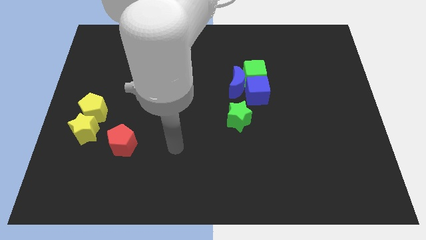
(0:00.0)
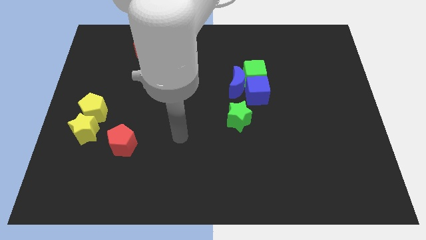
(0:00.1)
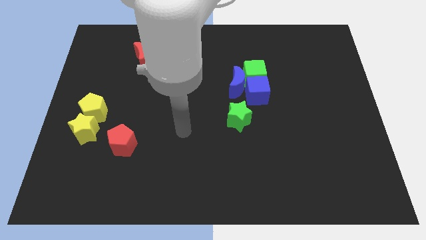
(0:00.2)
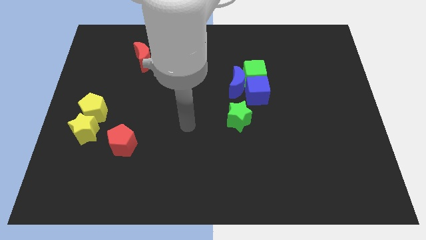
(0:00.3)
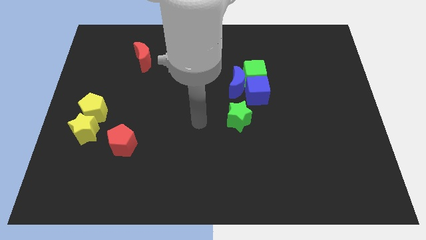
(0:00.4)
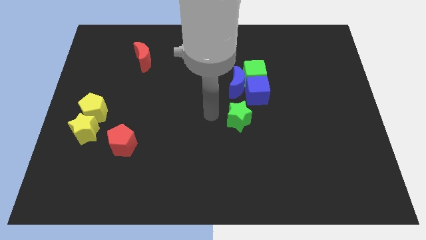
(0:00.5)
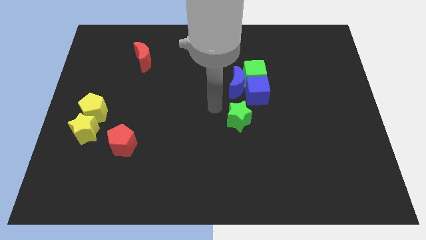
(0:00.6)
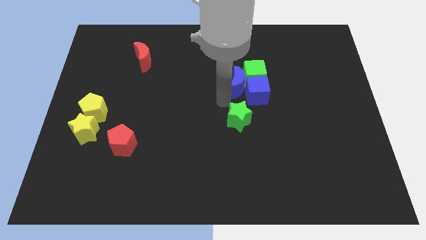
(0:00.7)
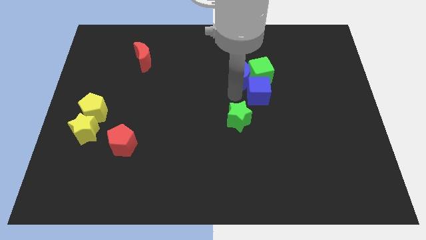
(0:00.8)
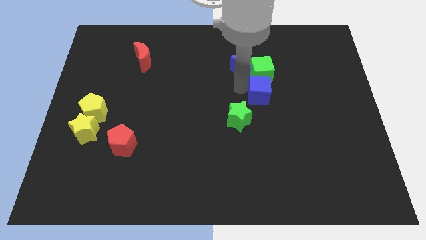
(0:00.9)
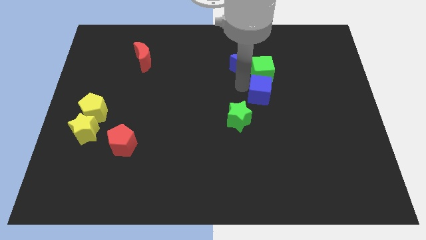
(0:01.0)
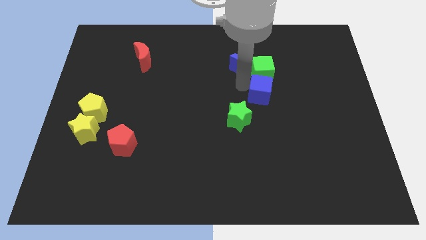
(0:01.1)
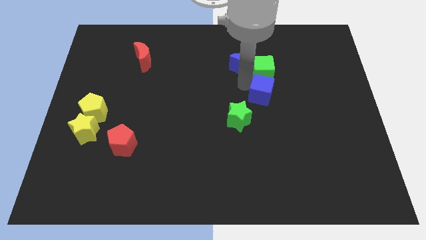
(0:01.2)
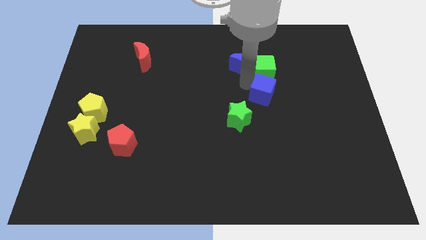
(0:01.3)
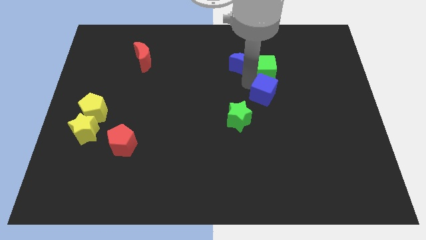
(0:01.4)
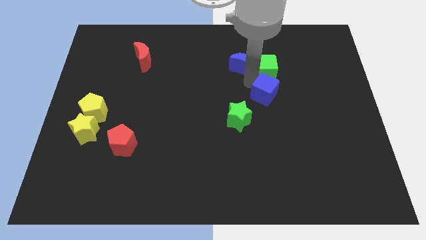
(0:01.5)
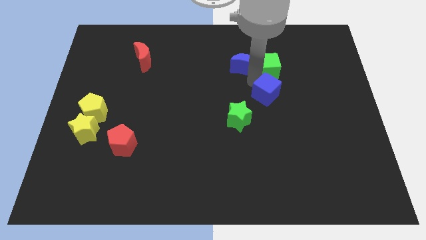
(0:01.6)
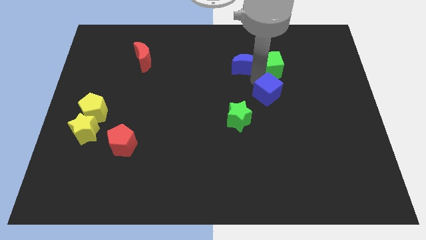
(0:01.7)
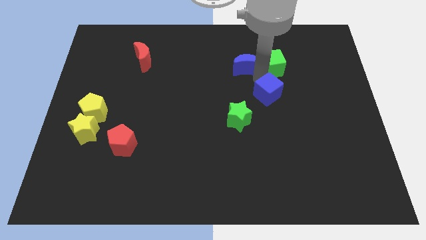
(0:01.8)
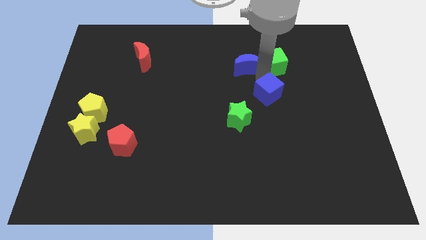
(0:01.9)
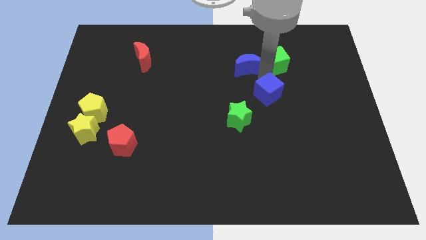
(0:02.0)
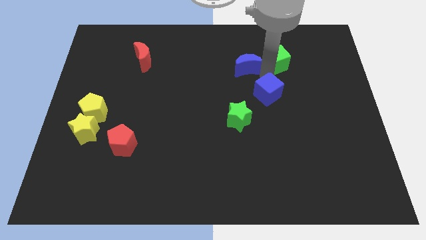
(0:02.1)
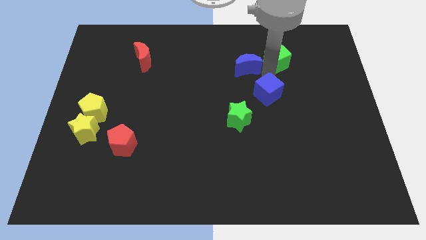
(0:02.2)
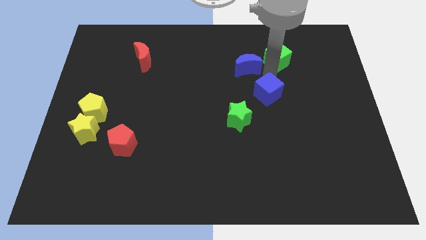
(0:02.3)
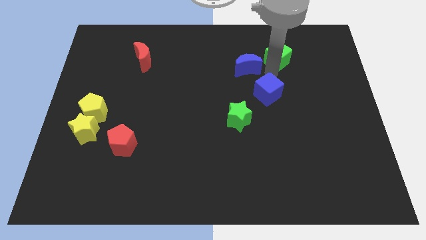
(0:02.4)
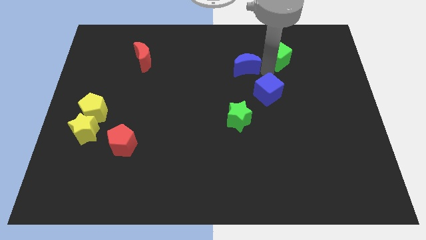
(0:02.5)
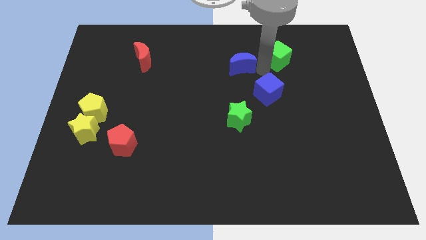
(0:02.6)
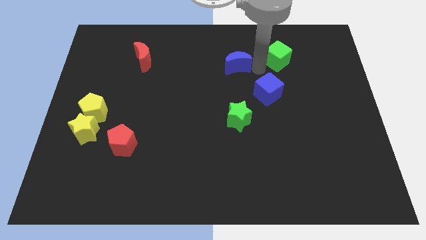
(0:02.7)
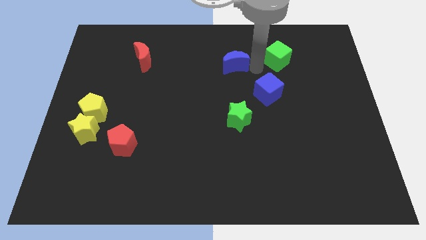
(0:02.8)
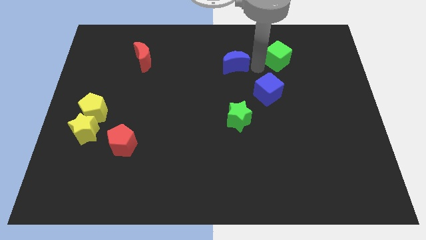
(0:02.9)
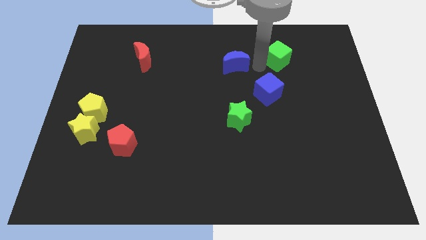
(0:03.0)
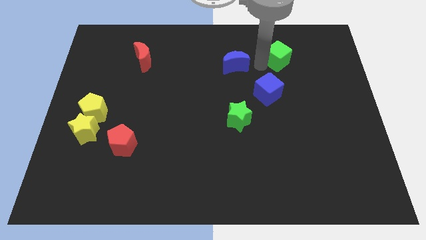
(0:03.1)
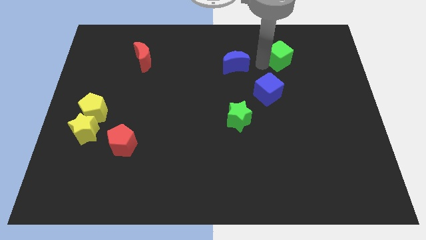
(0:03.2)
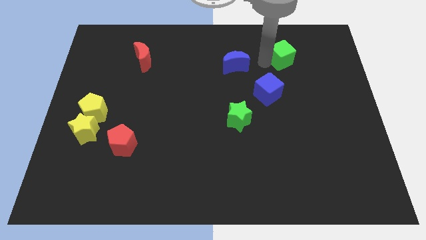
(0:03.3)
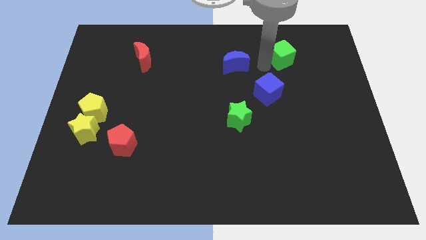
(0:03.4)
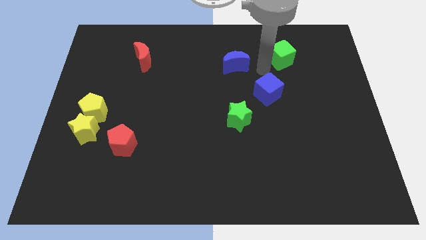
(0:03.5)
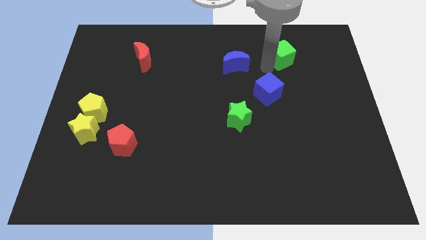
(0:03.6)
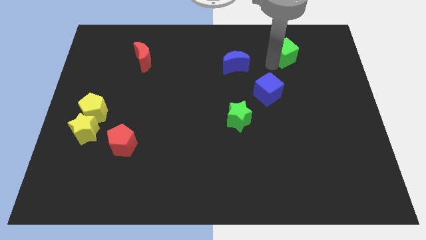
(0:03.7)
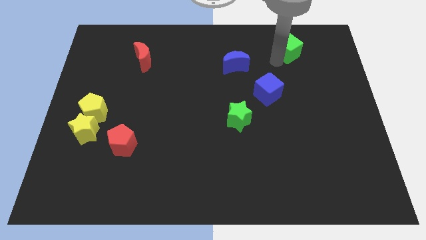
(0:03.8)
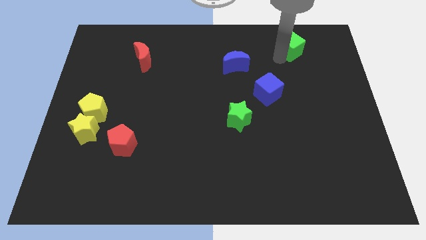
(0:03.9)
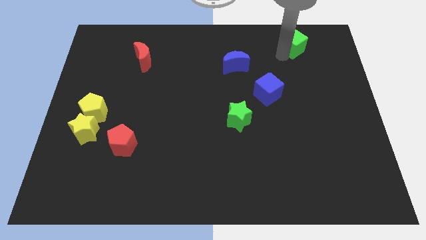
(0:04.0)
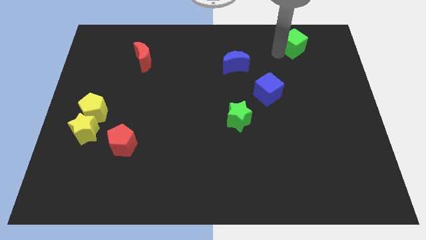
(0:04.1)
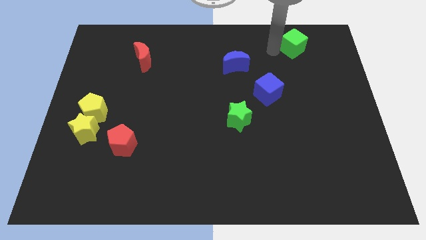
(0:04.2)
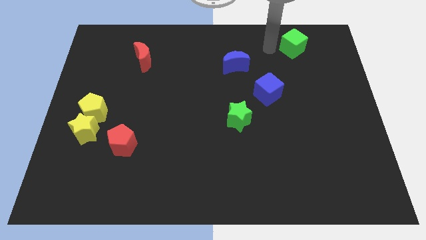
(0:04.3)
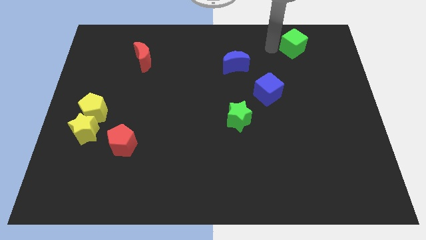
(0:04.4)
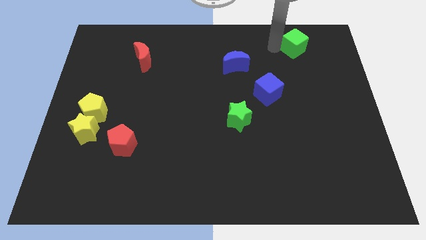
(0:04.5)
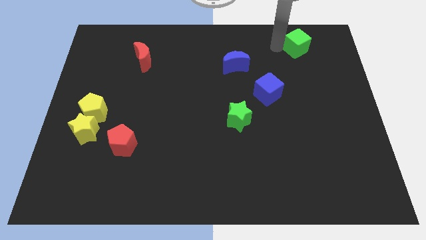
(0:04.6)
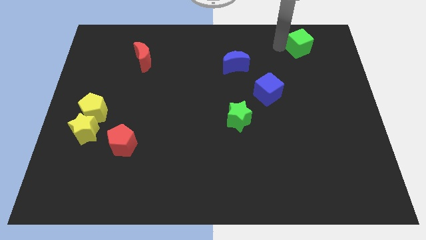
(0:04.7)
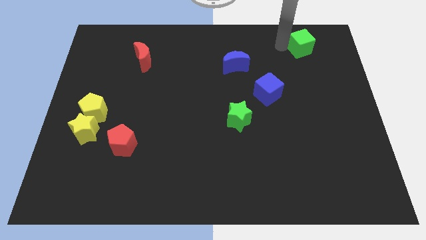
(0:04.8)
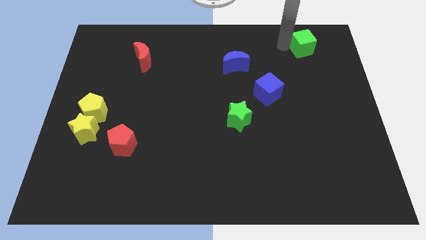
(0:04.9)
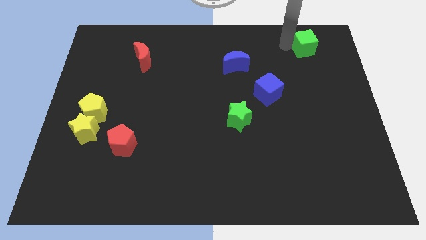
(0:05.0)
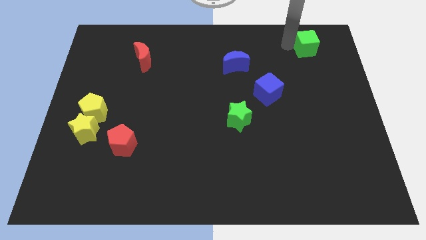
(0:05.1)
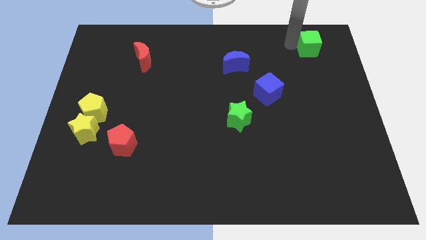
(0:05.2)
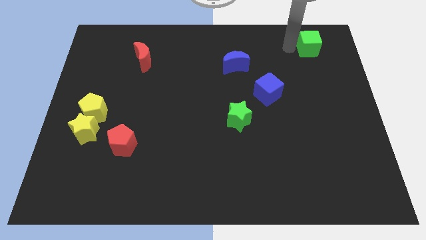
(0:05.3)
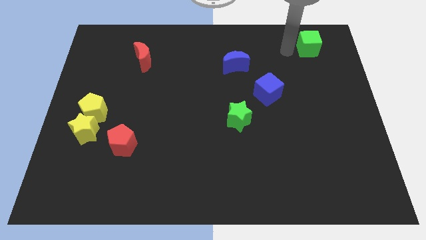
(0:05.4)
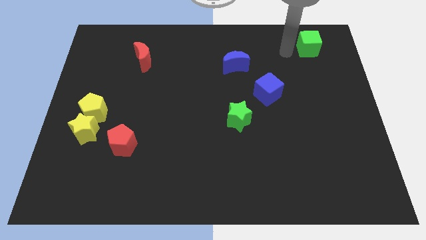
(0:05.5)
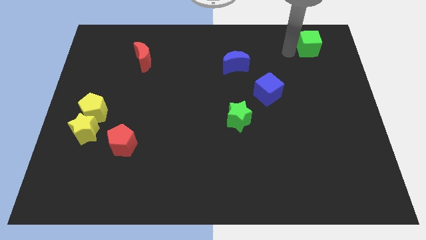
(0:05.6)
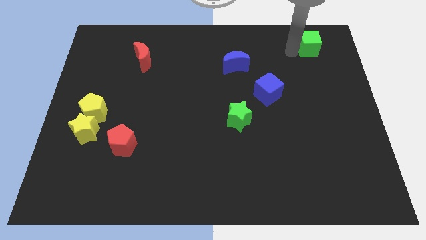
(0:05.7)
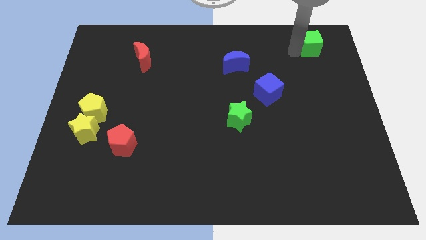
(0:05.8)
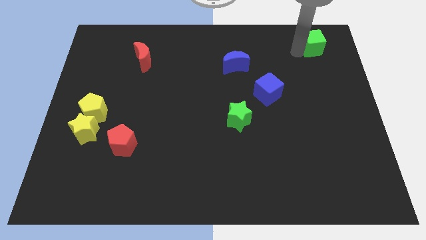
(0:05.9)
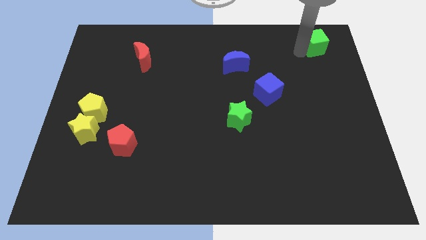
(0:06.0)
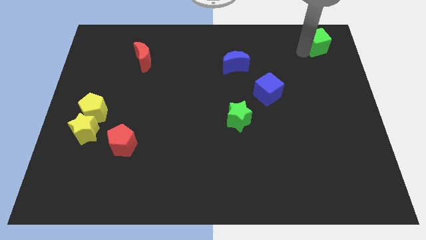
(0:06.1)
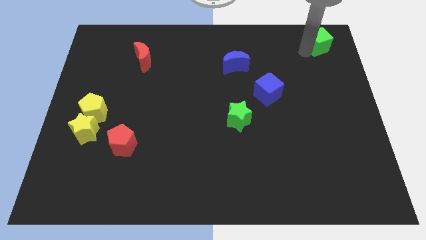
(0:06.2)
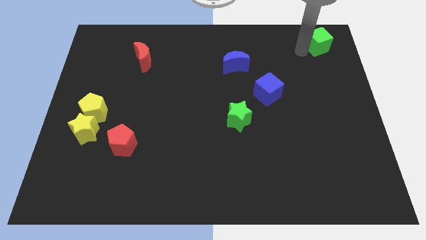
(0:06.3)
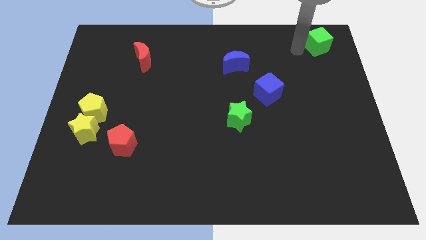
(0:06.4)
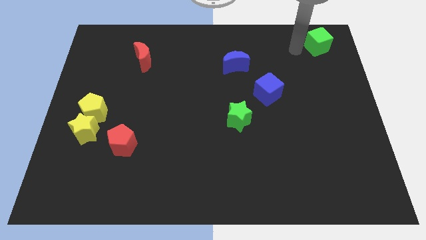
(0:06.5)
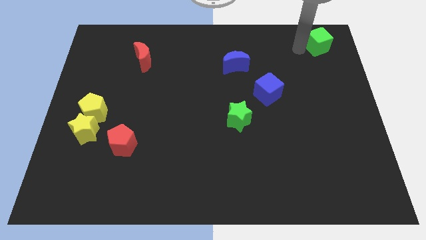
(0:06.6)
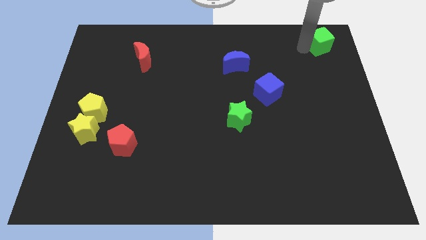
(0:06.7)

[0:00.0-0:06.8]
put the green cube to the upper right corner
